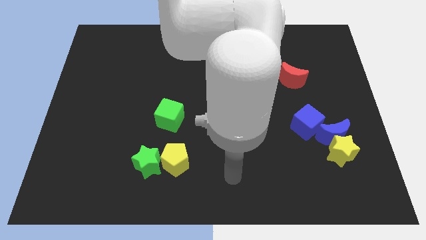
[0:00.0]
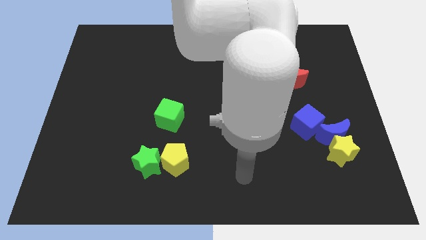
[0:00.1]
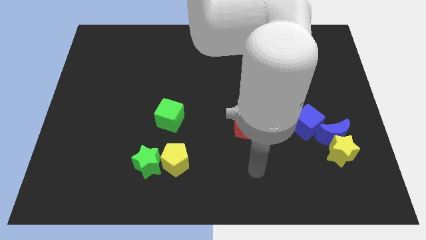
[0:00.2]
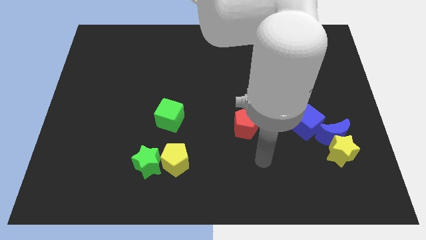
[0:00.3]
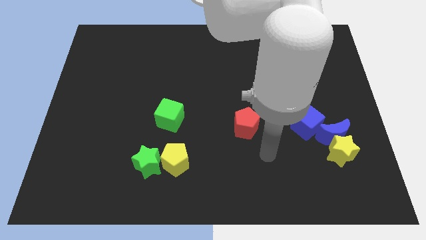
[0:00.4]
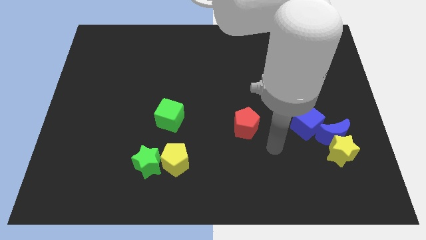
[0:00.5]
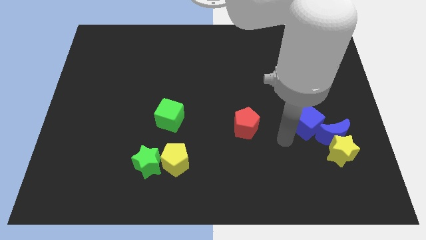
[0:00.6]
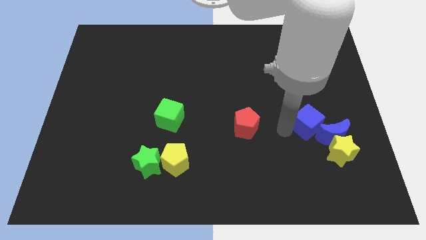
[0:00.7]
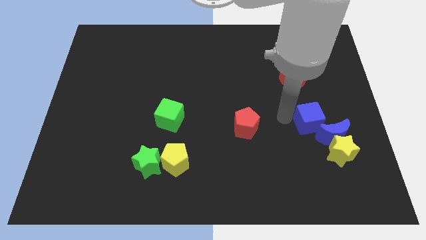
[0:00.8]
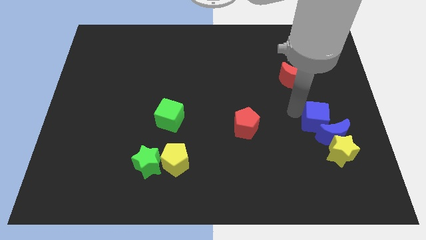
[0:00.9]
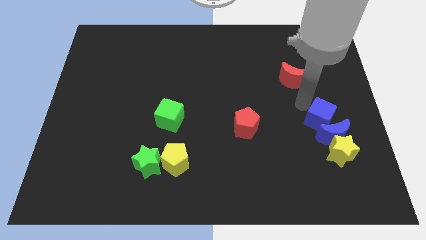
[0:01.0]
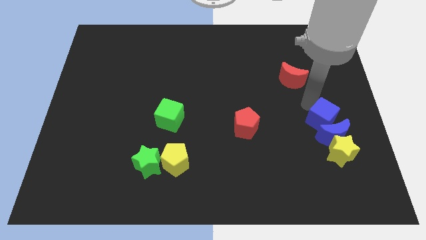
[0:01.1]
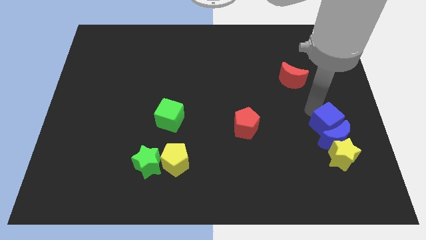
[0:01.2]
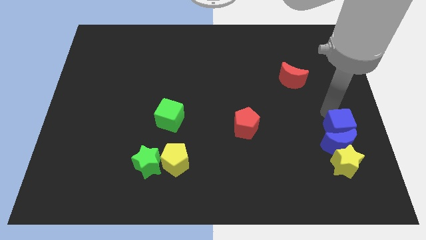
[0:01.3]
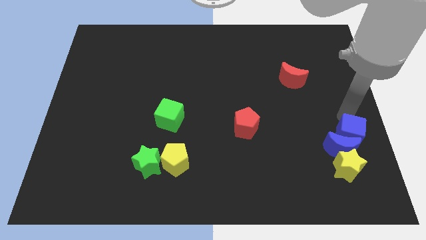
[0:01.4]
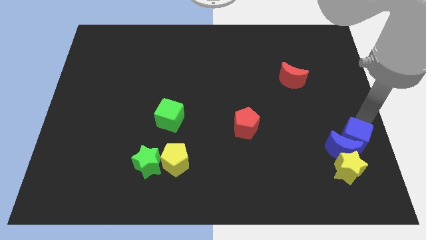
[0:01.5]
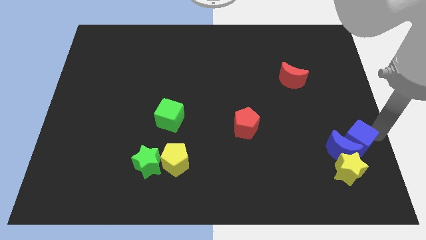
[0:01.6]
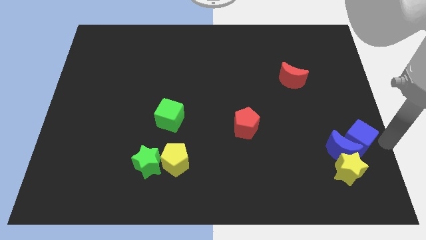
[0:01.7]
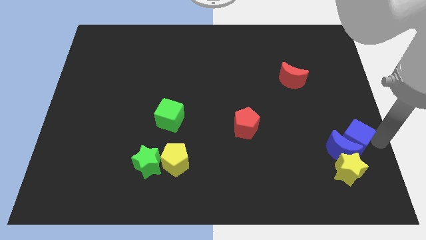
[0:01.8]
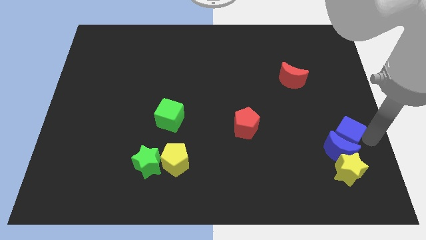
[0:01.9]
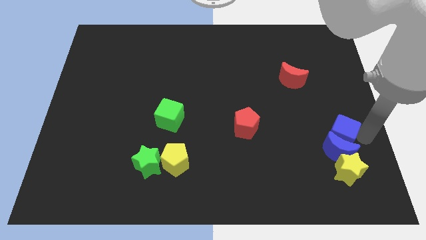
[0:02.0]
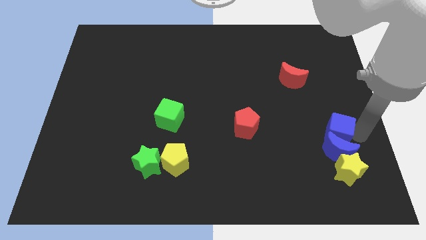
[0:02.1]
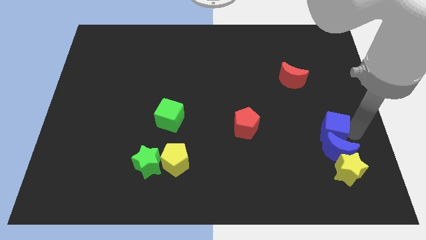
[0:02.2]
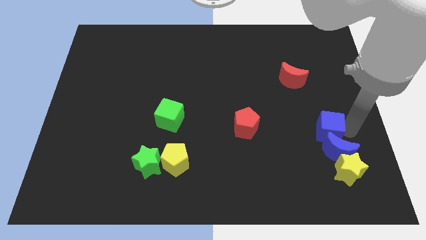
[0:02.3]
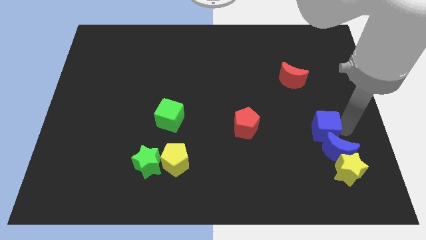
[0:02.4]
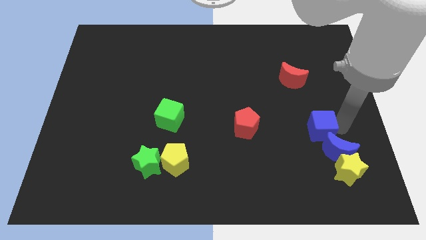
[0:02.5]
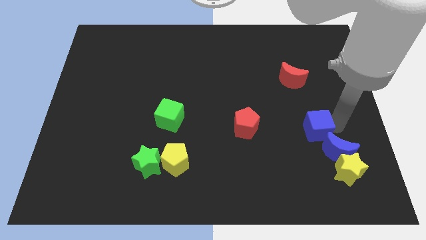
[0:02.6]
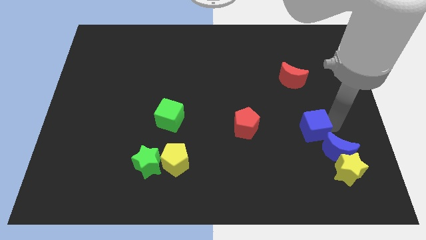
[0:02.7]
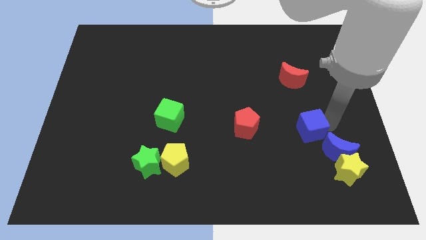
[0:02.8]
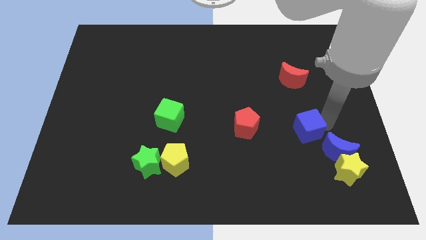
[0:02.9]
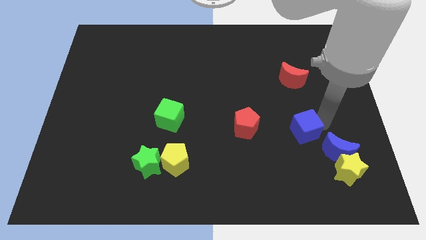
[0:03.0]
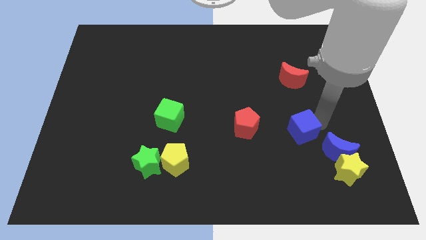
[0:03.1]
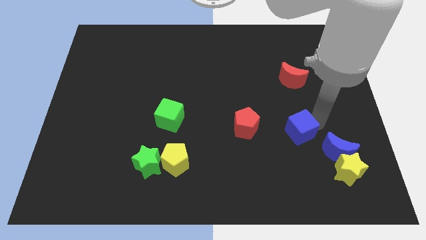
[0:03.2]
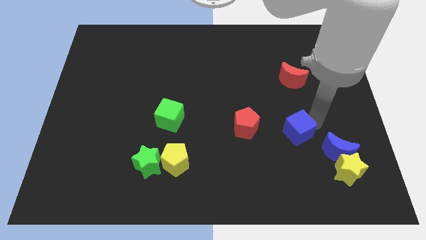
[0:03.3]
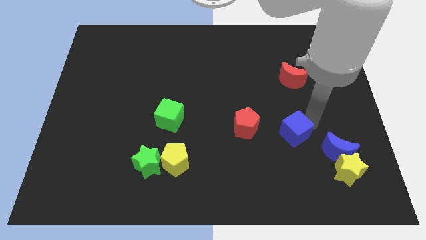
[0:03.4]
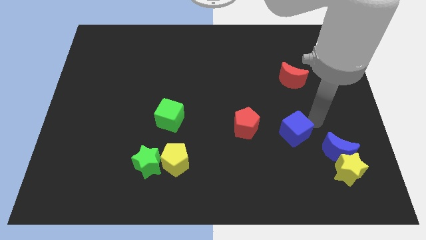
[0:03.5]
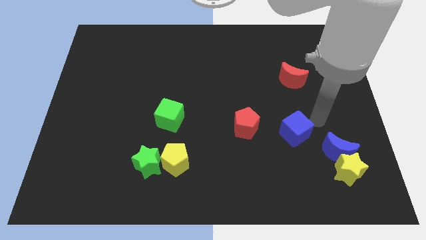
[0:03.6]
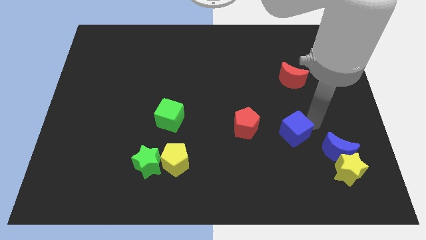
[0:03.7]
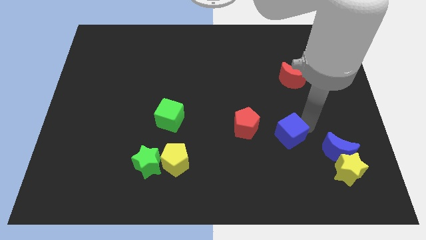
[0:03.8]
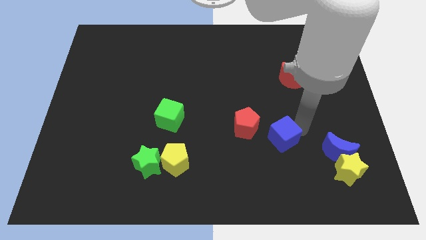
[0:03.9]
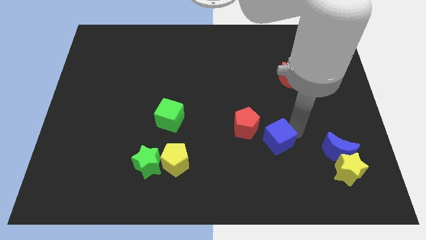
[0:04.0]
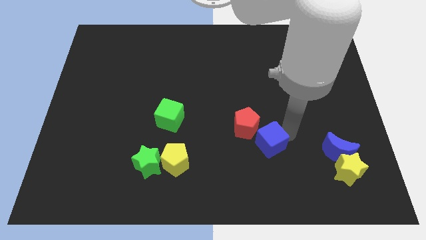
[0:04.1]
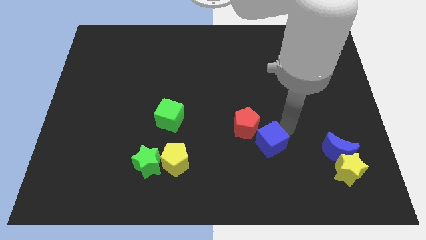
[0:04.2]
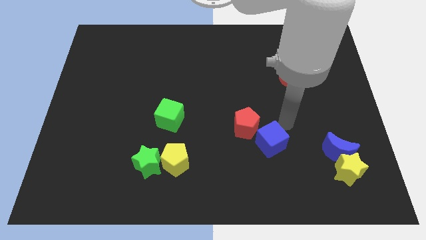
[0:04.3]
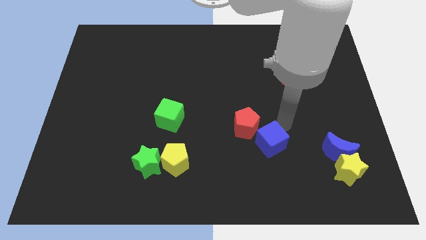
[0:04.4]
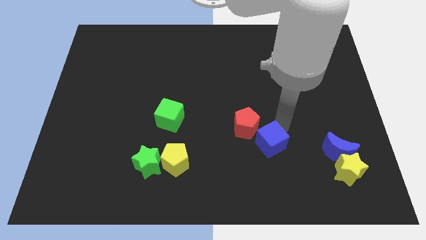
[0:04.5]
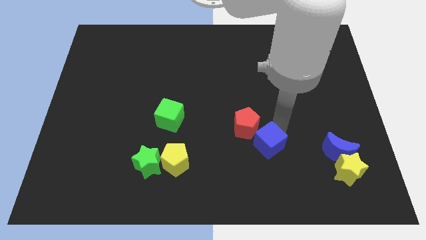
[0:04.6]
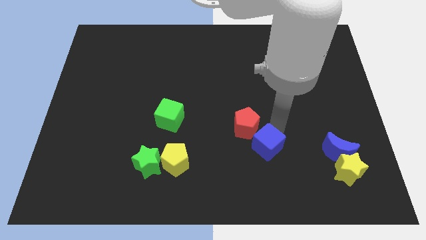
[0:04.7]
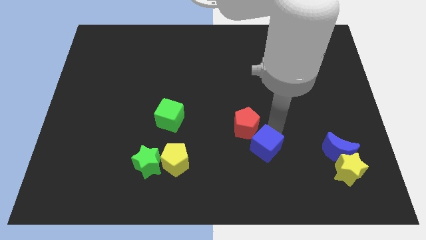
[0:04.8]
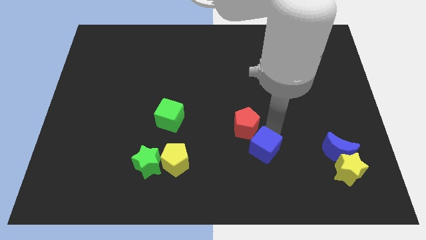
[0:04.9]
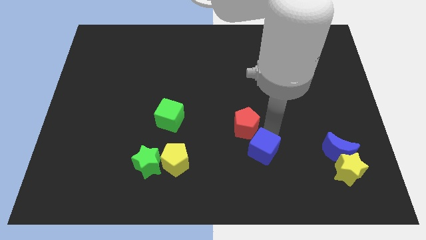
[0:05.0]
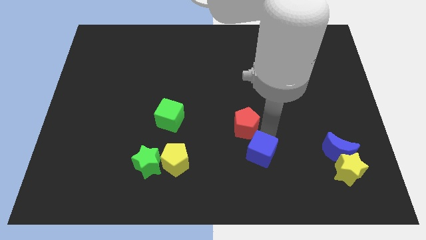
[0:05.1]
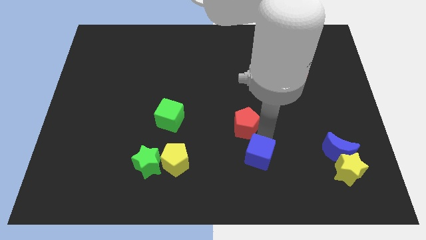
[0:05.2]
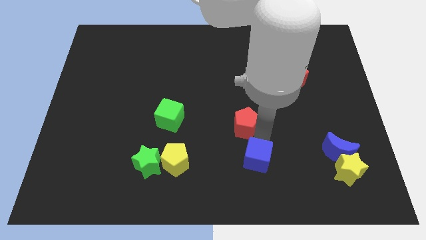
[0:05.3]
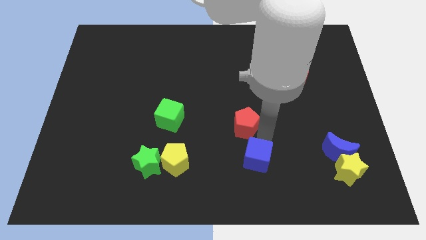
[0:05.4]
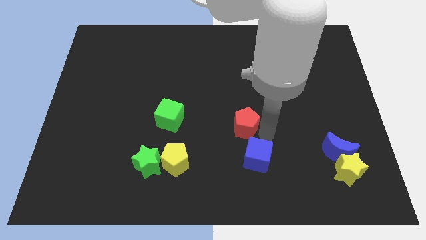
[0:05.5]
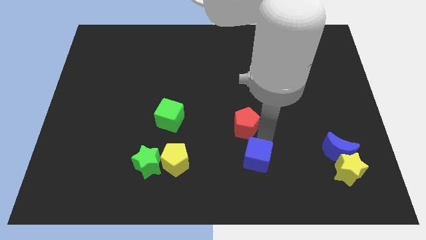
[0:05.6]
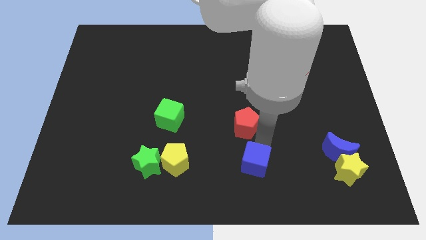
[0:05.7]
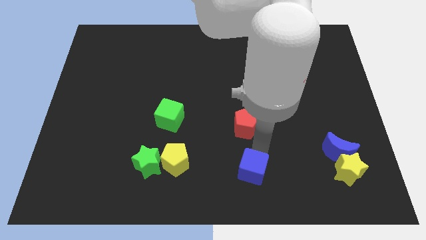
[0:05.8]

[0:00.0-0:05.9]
slide the blue cube to the bottom side
